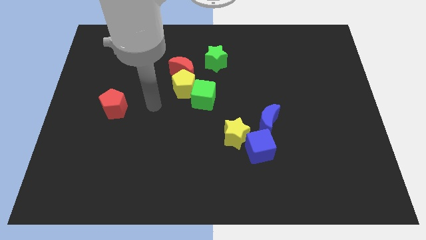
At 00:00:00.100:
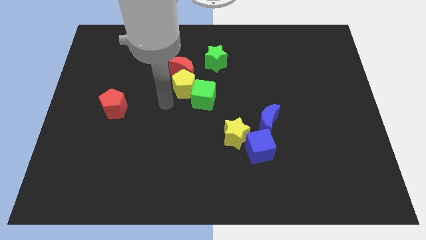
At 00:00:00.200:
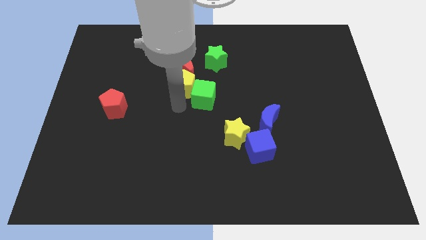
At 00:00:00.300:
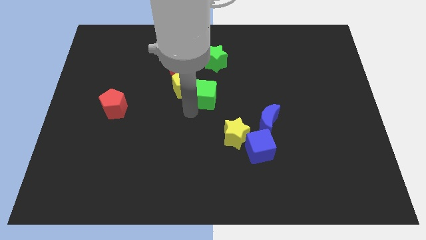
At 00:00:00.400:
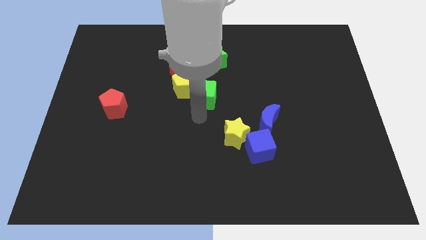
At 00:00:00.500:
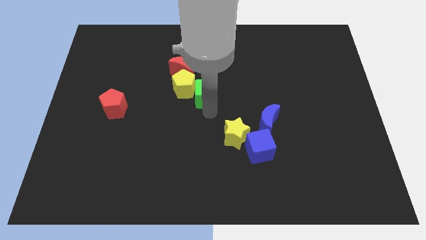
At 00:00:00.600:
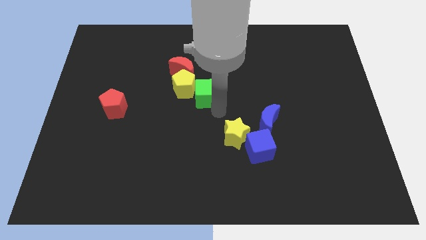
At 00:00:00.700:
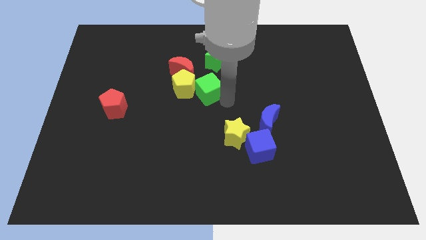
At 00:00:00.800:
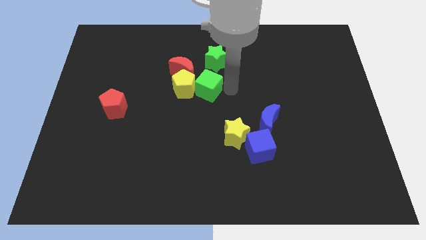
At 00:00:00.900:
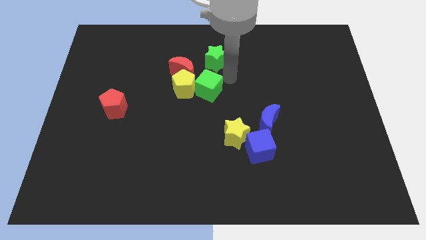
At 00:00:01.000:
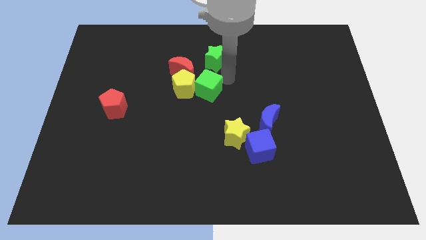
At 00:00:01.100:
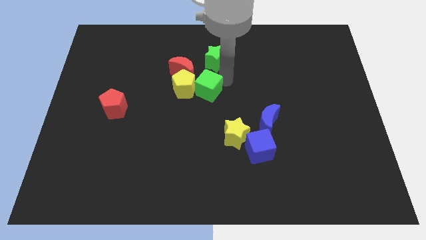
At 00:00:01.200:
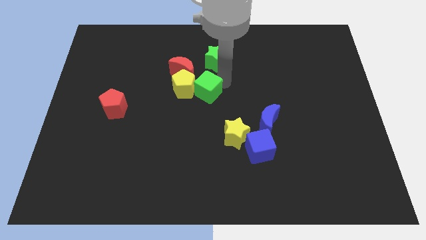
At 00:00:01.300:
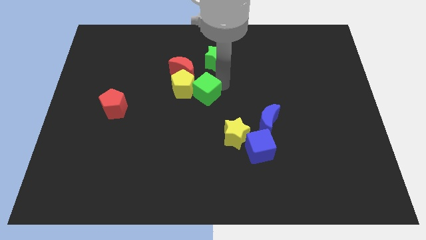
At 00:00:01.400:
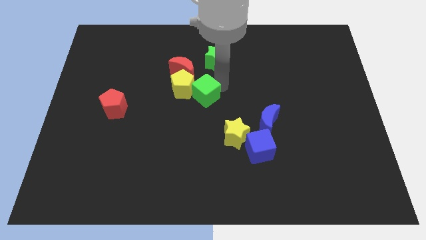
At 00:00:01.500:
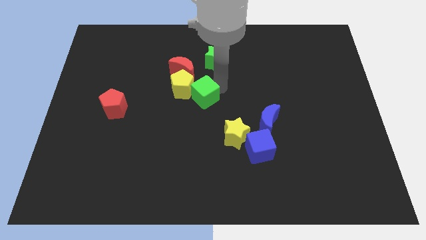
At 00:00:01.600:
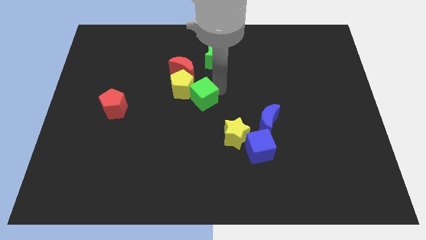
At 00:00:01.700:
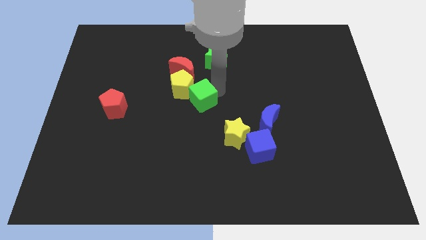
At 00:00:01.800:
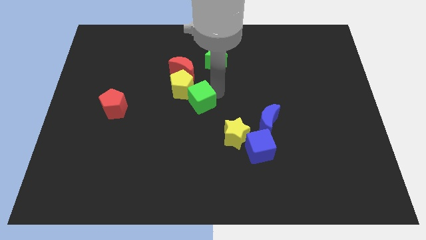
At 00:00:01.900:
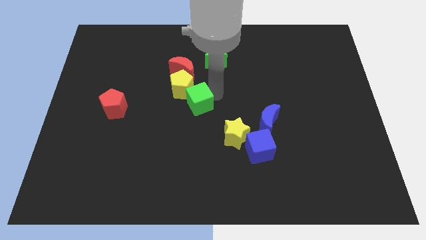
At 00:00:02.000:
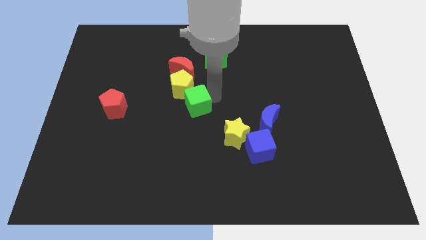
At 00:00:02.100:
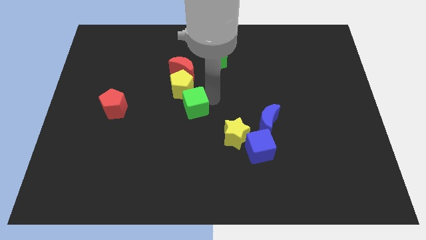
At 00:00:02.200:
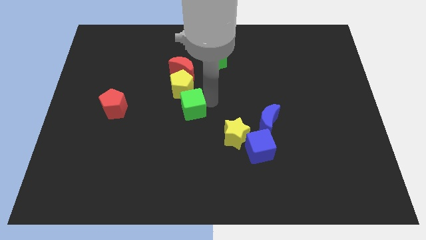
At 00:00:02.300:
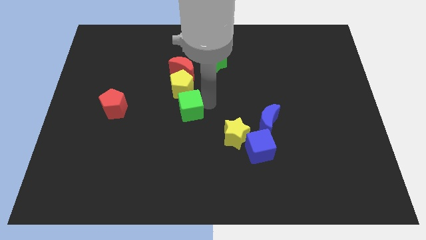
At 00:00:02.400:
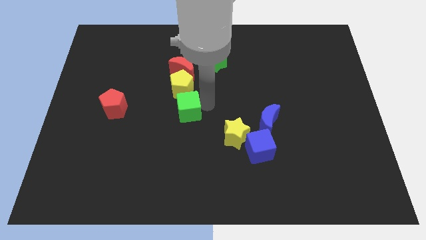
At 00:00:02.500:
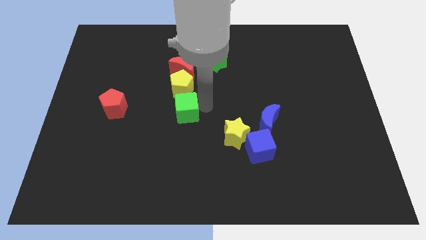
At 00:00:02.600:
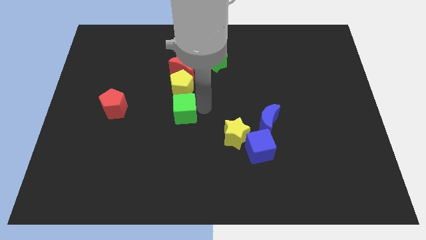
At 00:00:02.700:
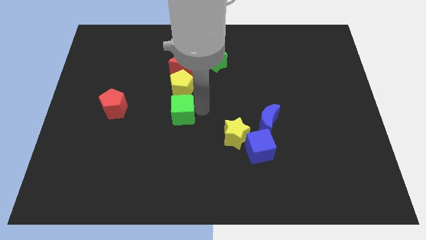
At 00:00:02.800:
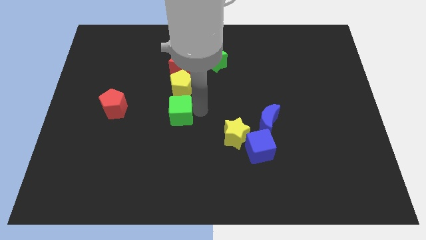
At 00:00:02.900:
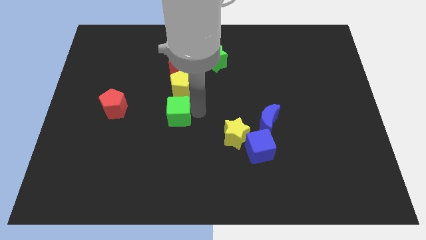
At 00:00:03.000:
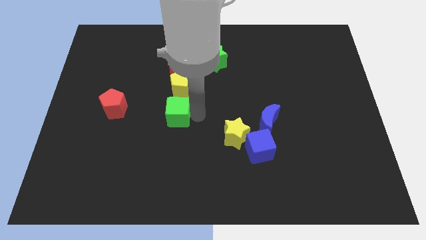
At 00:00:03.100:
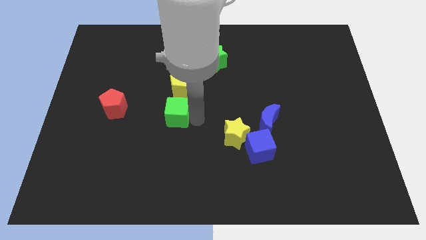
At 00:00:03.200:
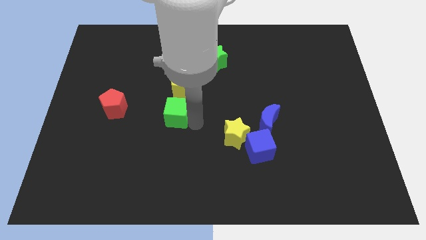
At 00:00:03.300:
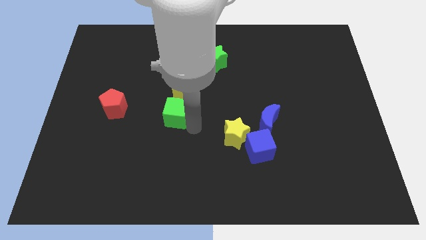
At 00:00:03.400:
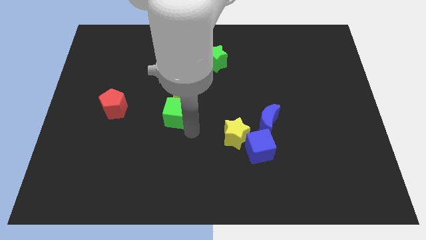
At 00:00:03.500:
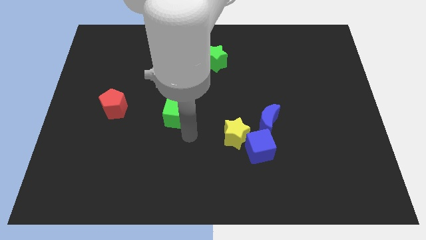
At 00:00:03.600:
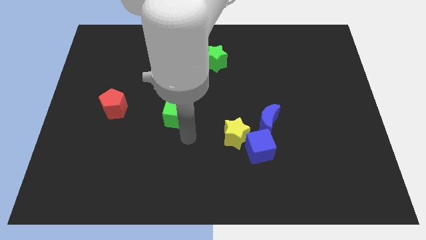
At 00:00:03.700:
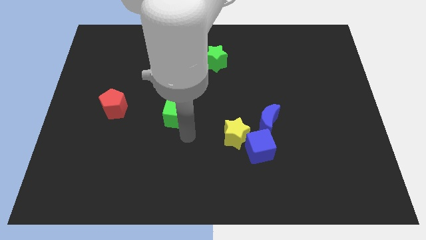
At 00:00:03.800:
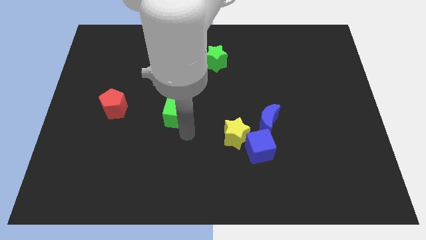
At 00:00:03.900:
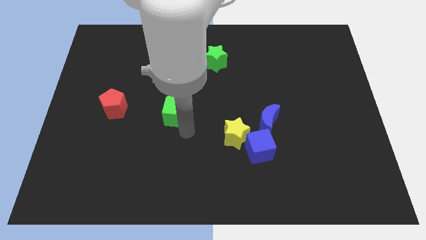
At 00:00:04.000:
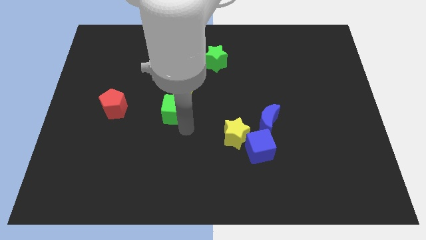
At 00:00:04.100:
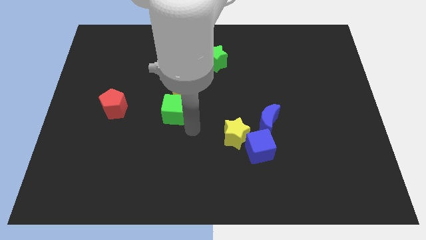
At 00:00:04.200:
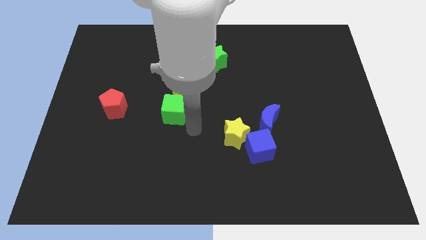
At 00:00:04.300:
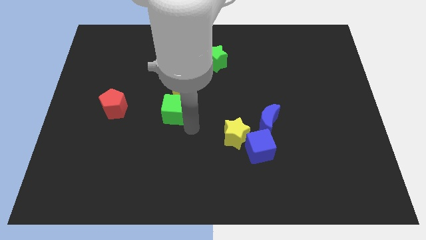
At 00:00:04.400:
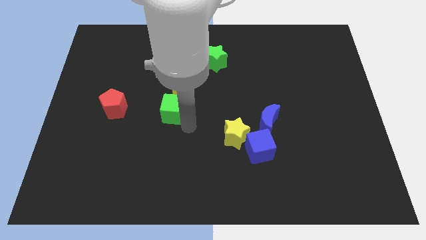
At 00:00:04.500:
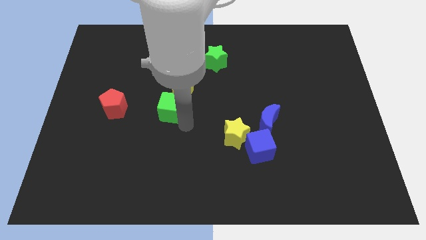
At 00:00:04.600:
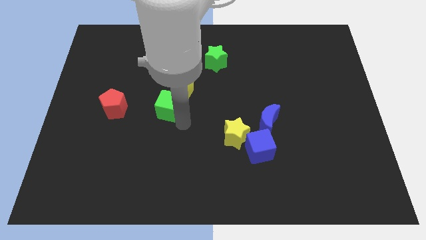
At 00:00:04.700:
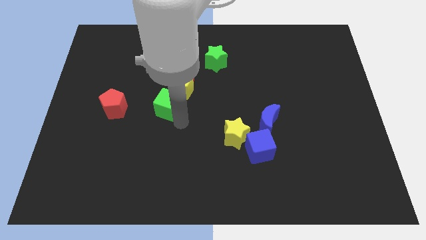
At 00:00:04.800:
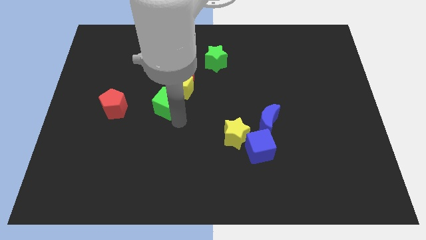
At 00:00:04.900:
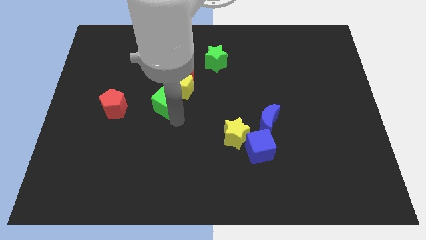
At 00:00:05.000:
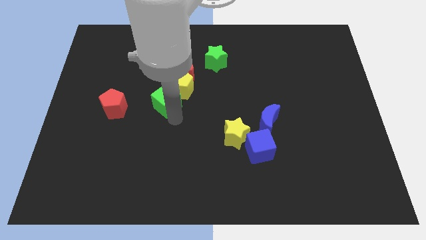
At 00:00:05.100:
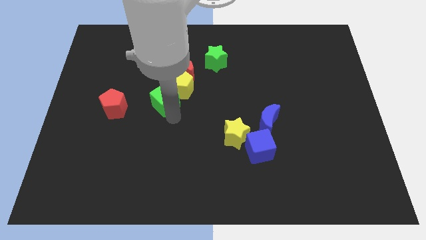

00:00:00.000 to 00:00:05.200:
move the green cube to the left of the yellow pentagon

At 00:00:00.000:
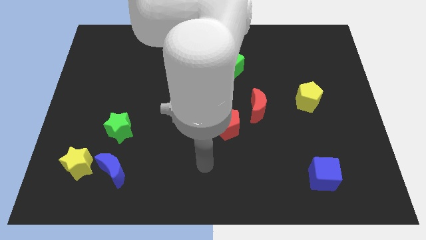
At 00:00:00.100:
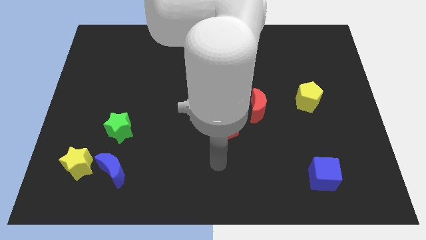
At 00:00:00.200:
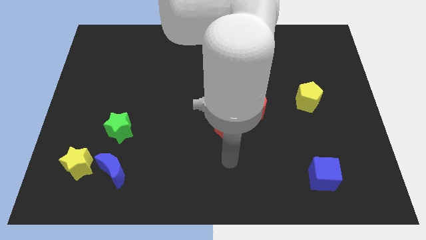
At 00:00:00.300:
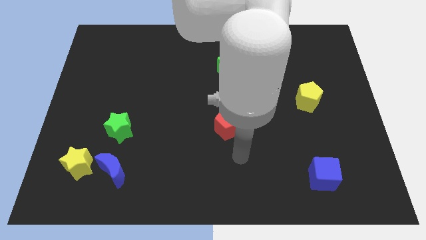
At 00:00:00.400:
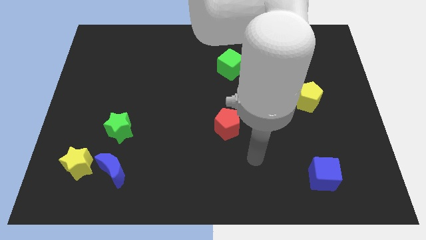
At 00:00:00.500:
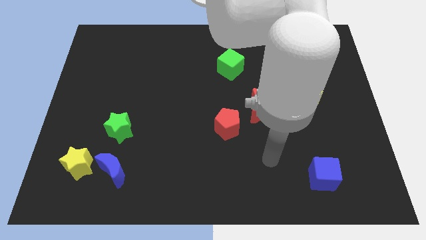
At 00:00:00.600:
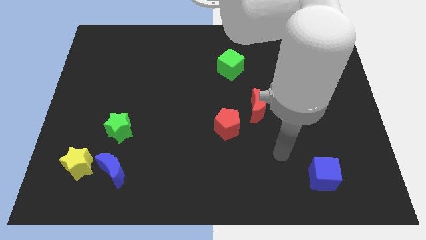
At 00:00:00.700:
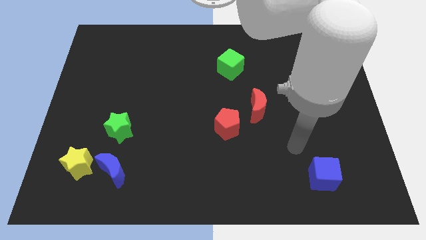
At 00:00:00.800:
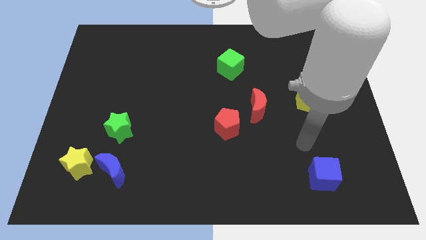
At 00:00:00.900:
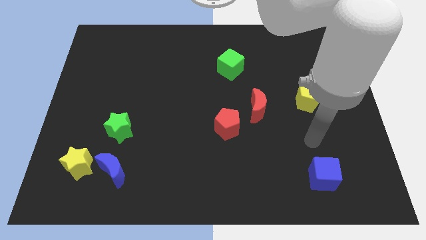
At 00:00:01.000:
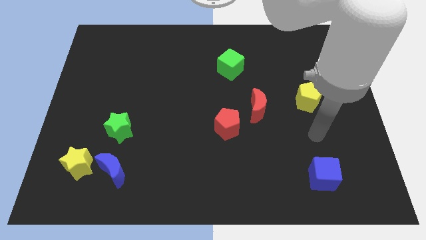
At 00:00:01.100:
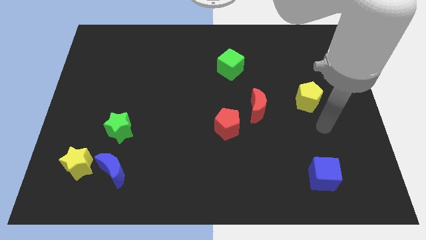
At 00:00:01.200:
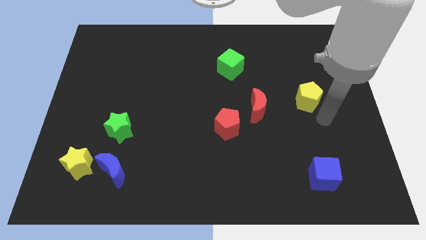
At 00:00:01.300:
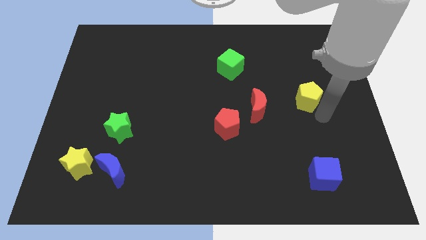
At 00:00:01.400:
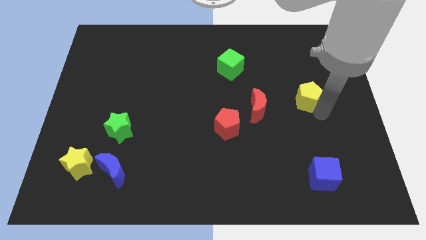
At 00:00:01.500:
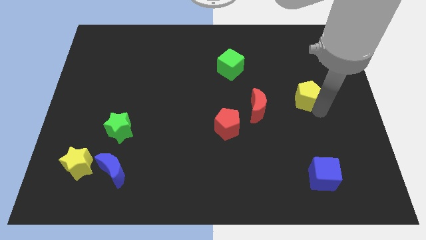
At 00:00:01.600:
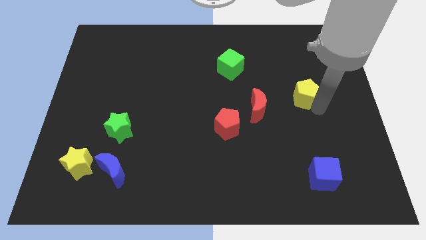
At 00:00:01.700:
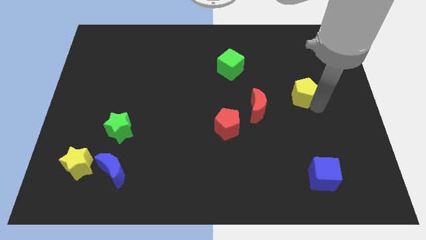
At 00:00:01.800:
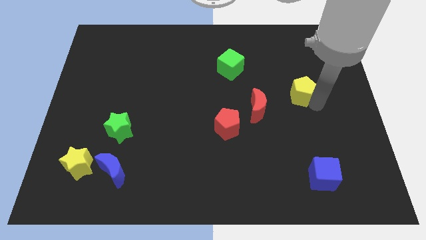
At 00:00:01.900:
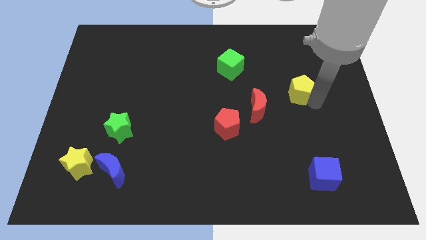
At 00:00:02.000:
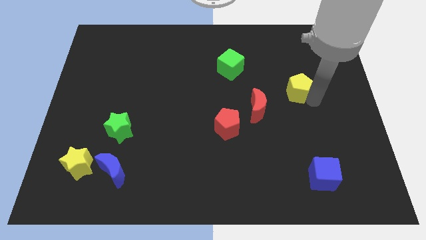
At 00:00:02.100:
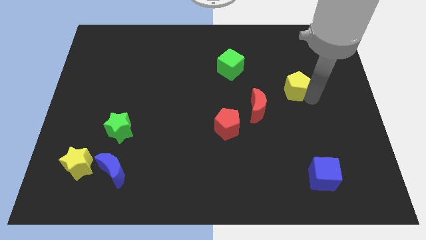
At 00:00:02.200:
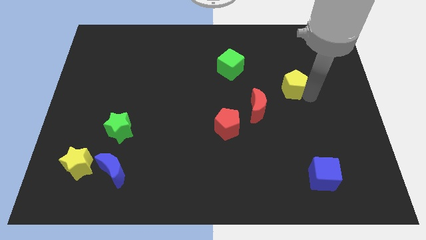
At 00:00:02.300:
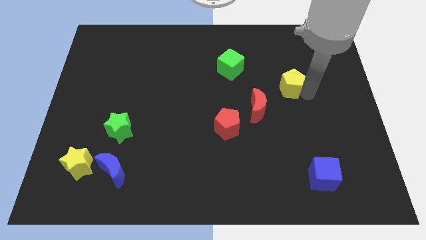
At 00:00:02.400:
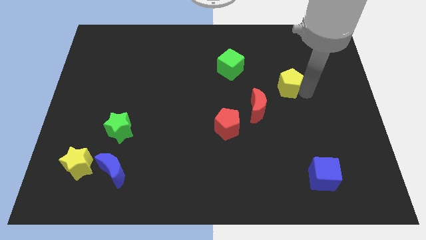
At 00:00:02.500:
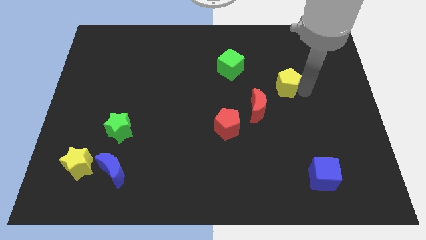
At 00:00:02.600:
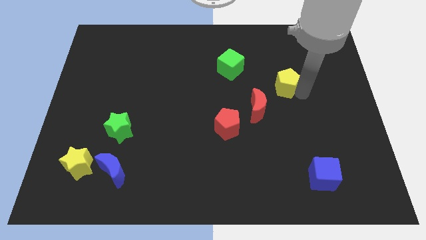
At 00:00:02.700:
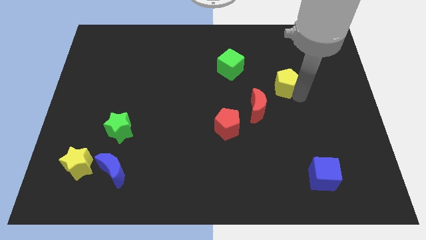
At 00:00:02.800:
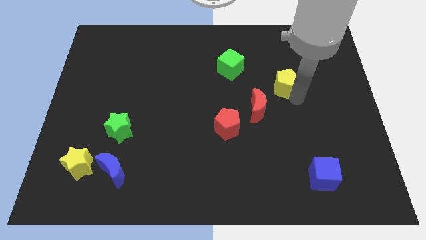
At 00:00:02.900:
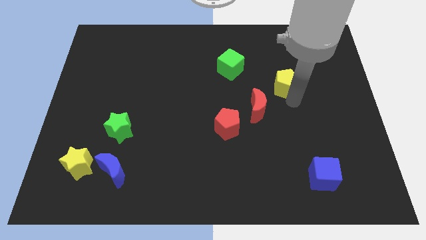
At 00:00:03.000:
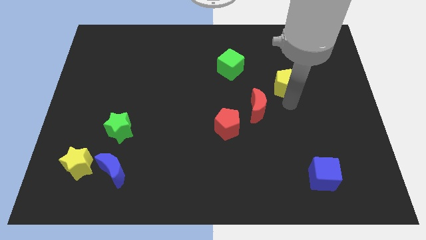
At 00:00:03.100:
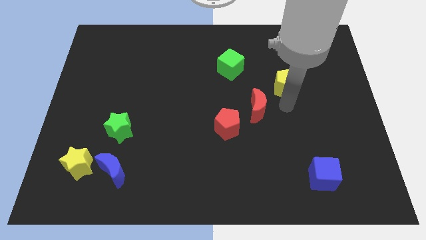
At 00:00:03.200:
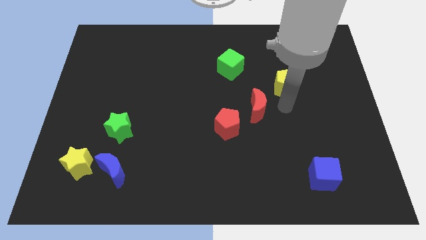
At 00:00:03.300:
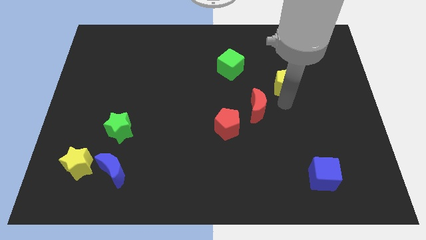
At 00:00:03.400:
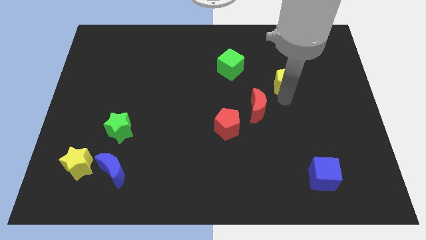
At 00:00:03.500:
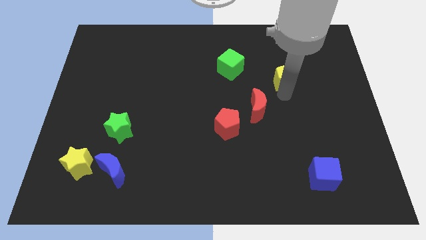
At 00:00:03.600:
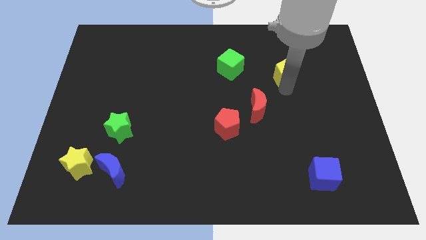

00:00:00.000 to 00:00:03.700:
slide the yellow pentagon right of the green cube
